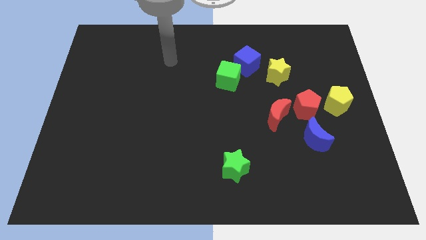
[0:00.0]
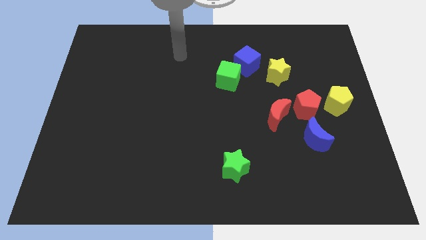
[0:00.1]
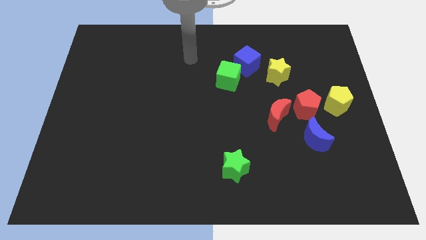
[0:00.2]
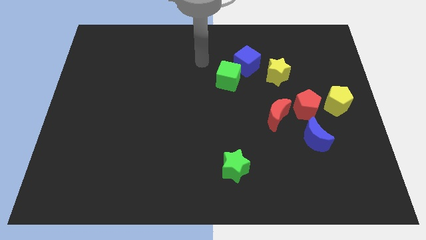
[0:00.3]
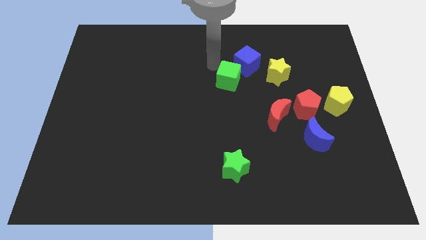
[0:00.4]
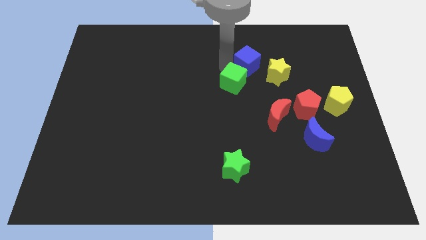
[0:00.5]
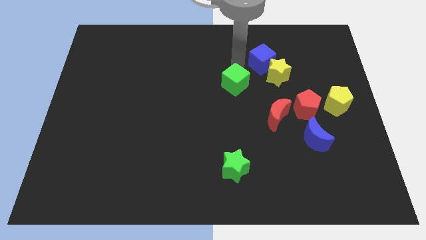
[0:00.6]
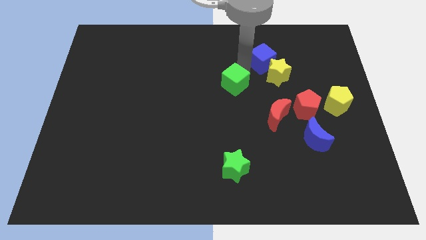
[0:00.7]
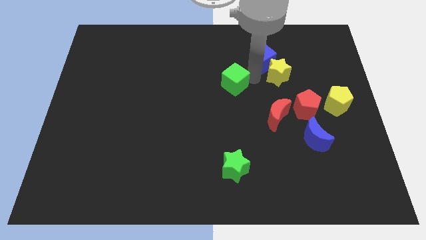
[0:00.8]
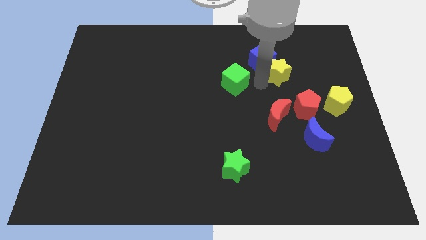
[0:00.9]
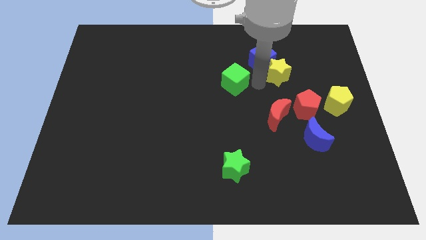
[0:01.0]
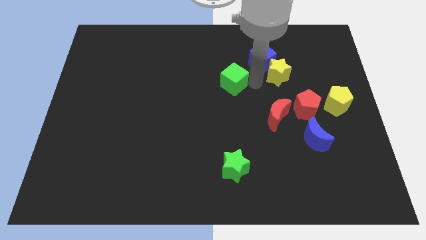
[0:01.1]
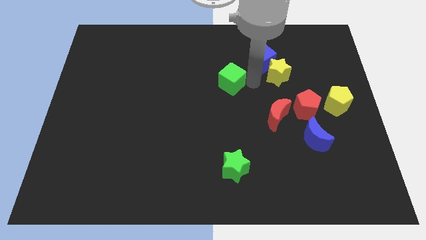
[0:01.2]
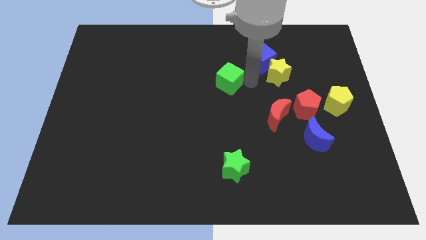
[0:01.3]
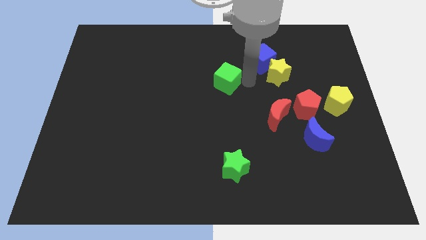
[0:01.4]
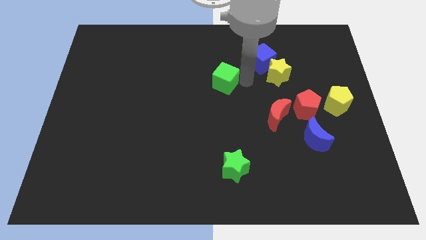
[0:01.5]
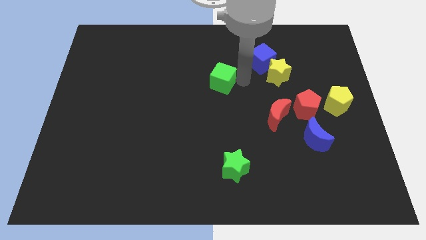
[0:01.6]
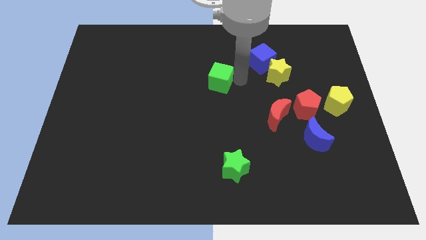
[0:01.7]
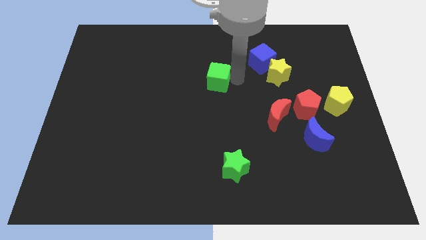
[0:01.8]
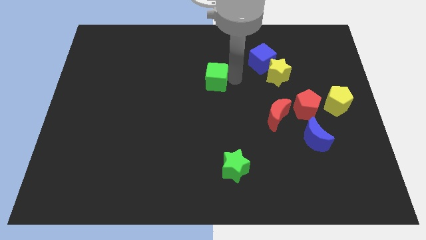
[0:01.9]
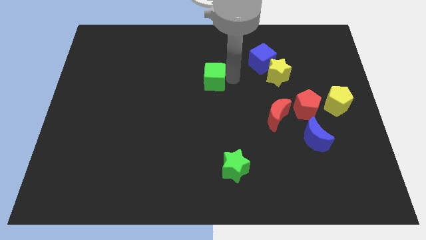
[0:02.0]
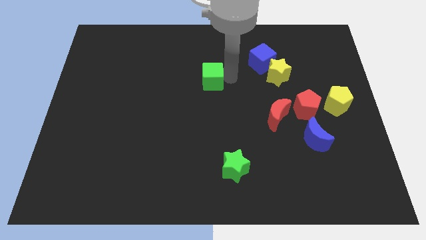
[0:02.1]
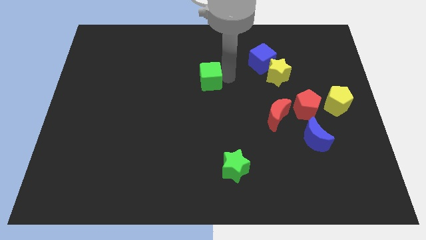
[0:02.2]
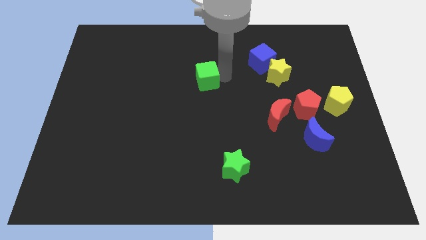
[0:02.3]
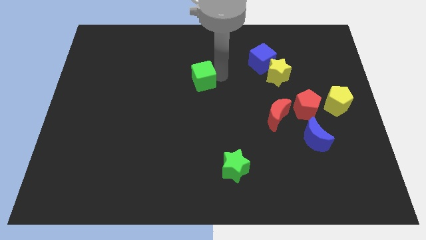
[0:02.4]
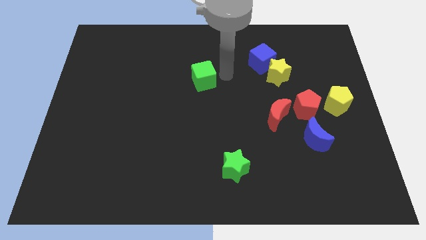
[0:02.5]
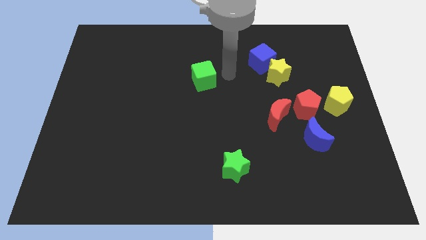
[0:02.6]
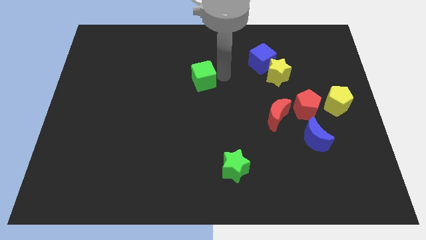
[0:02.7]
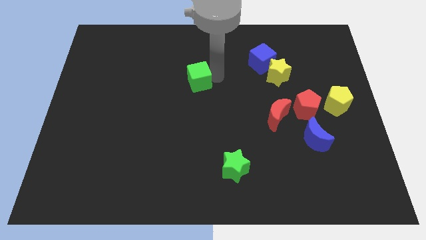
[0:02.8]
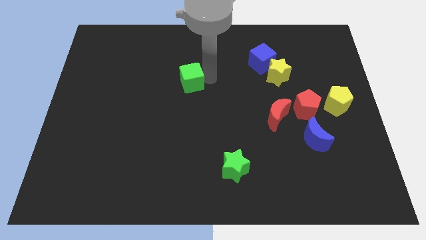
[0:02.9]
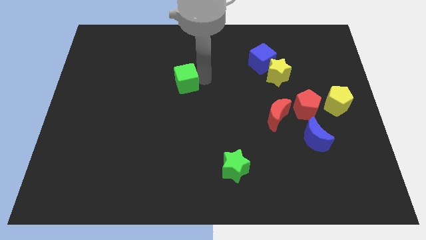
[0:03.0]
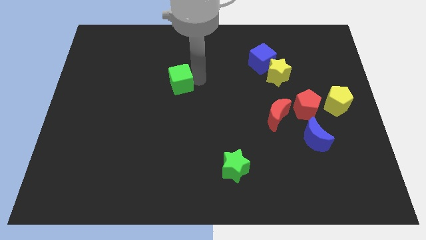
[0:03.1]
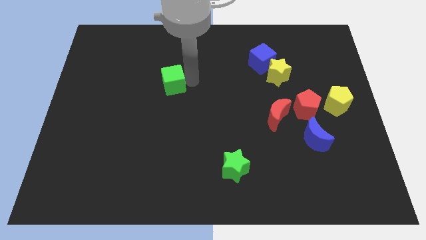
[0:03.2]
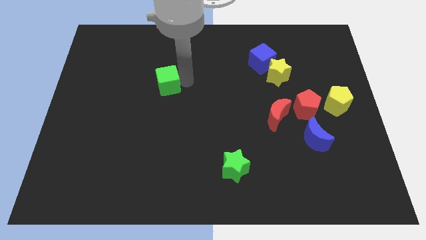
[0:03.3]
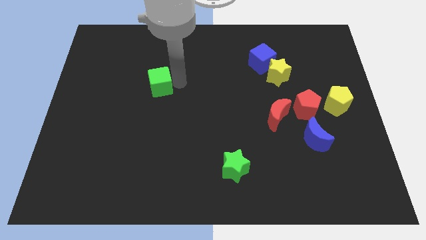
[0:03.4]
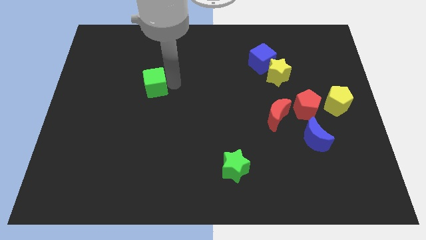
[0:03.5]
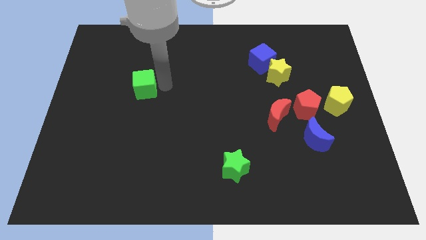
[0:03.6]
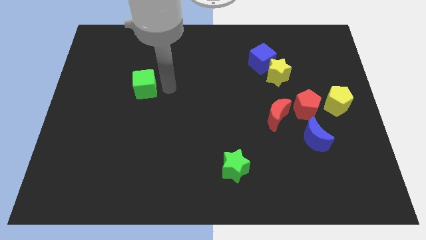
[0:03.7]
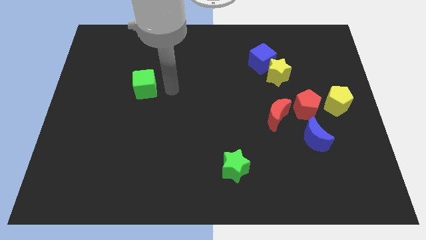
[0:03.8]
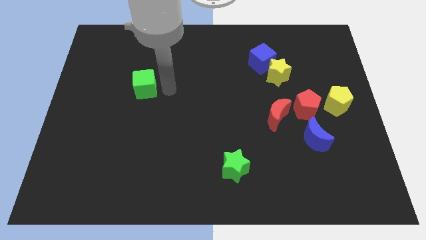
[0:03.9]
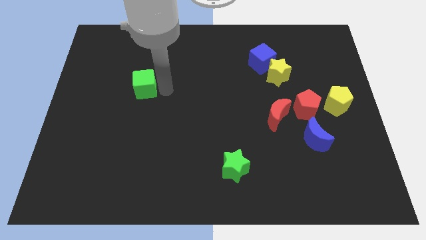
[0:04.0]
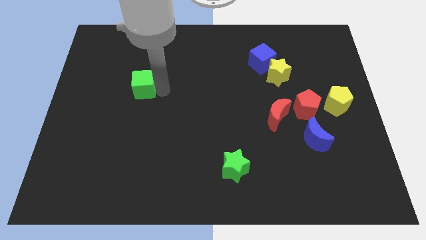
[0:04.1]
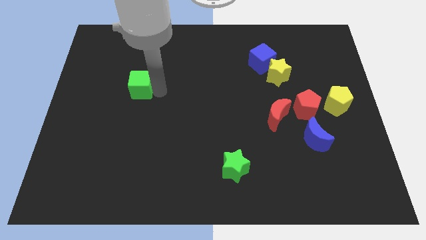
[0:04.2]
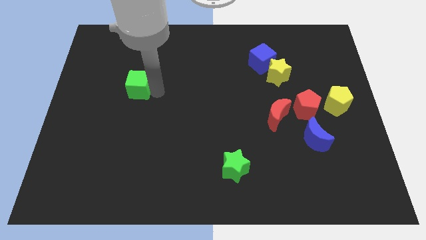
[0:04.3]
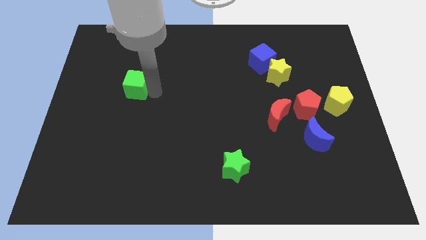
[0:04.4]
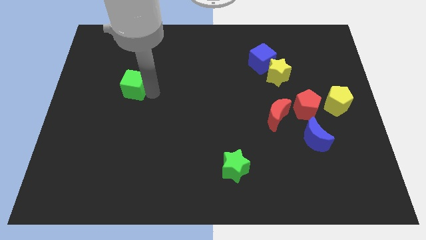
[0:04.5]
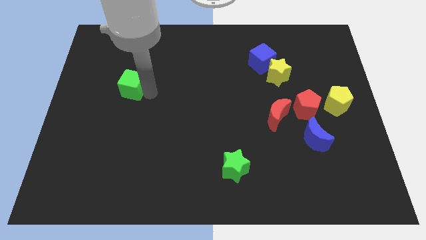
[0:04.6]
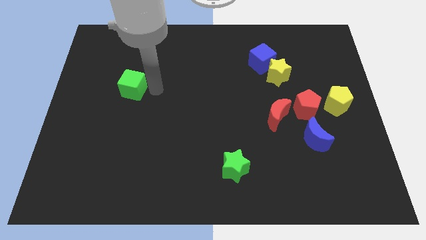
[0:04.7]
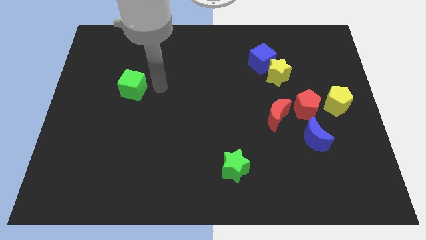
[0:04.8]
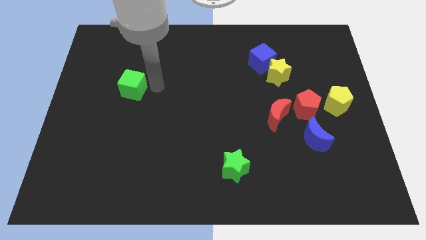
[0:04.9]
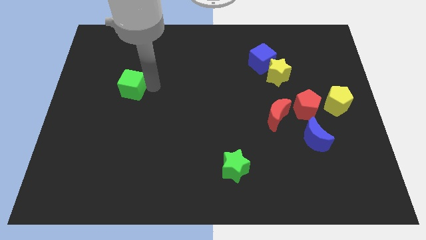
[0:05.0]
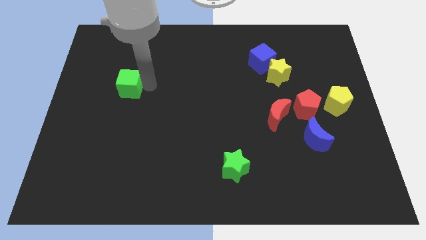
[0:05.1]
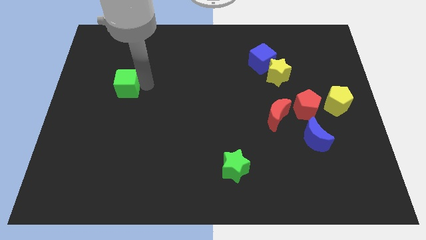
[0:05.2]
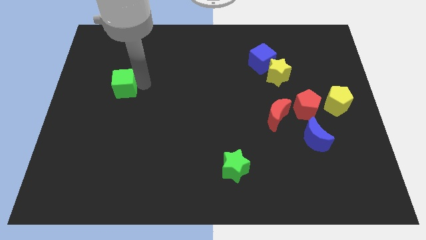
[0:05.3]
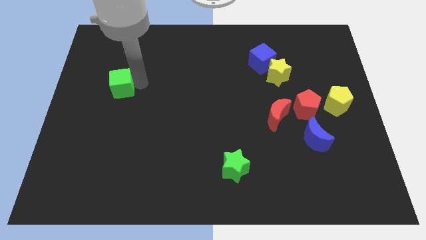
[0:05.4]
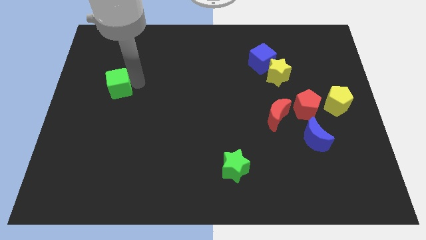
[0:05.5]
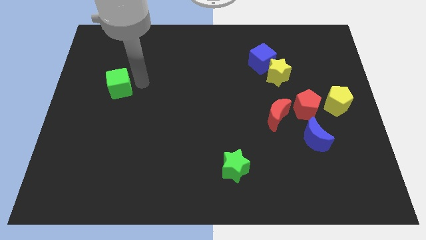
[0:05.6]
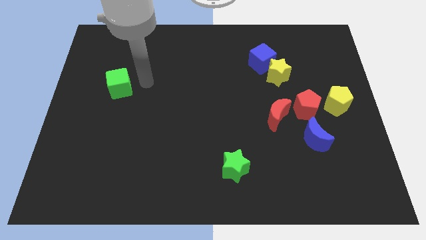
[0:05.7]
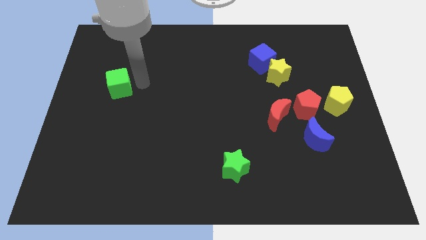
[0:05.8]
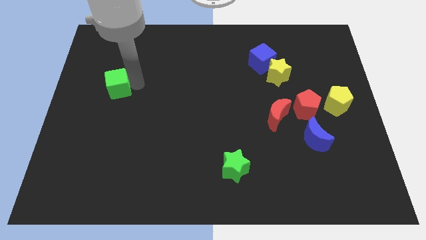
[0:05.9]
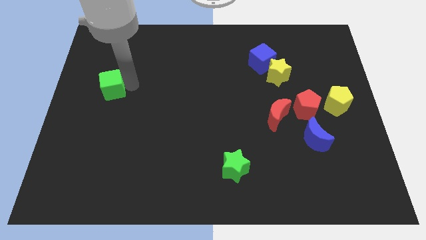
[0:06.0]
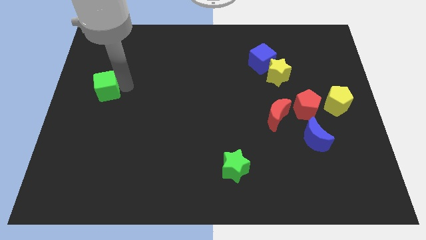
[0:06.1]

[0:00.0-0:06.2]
slide the green cube to the left side
